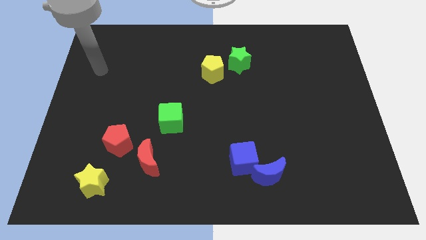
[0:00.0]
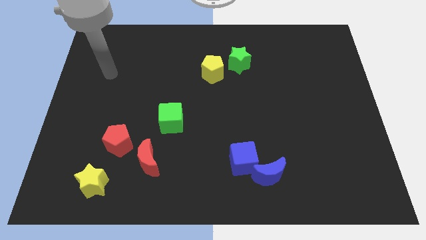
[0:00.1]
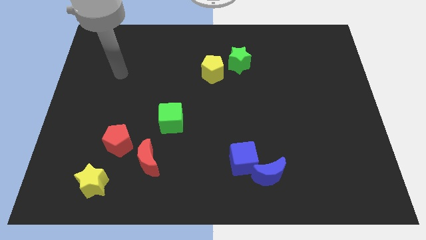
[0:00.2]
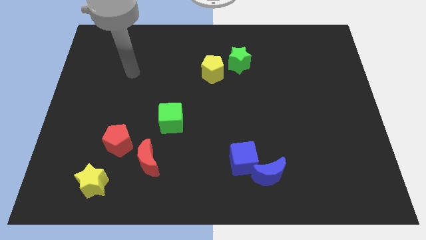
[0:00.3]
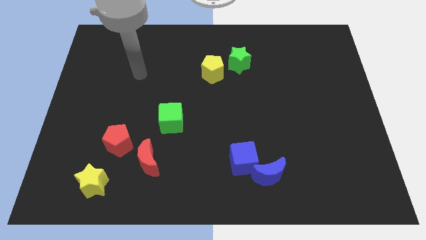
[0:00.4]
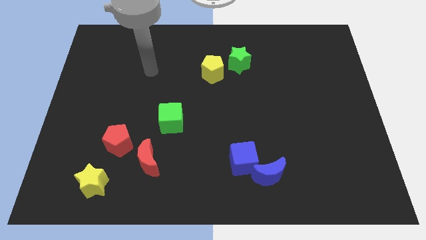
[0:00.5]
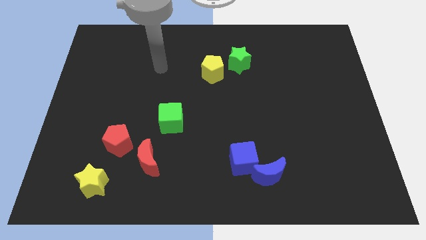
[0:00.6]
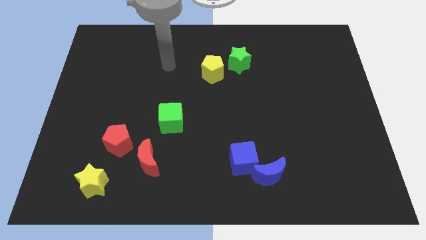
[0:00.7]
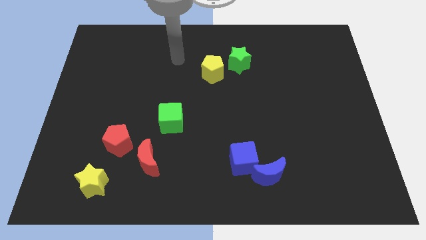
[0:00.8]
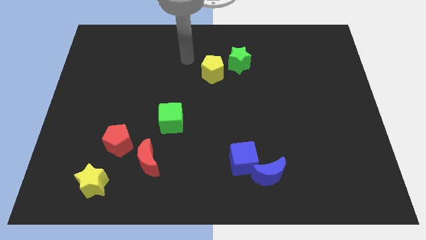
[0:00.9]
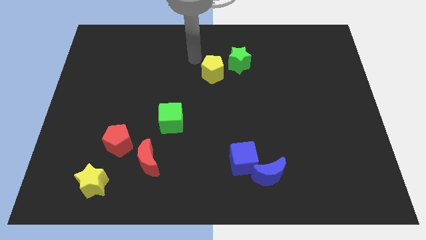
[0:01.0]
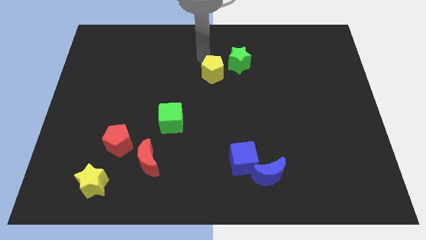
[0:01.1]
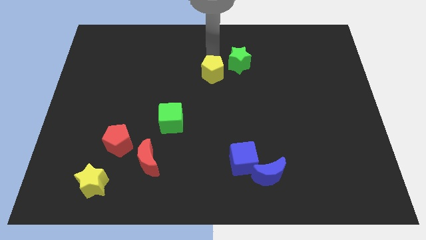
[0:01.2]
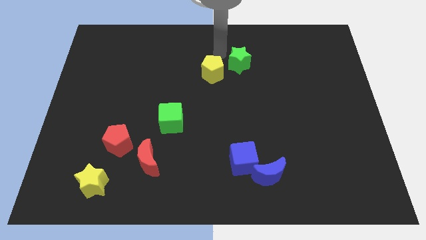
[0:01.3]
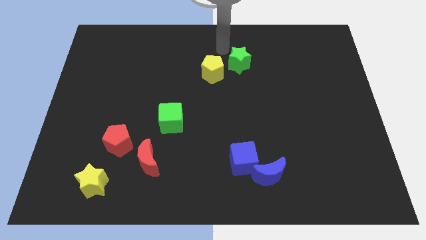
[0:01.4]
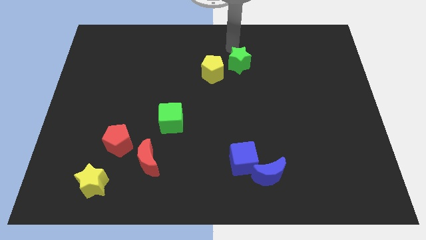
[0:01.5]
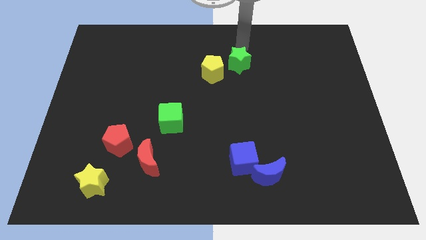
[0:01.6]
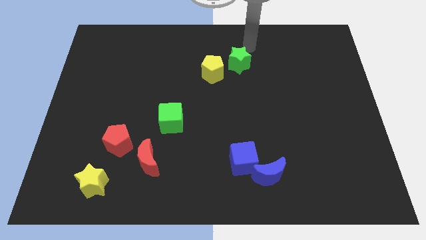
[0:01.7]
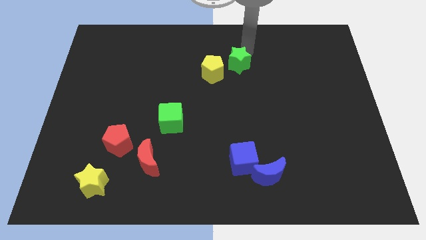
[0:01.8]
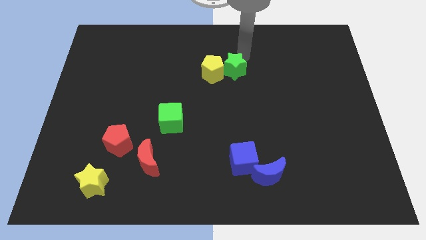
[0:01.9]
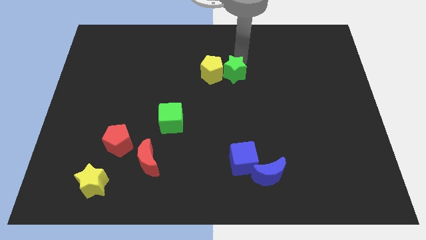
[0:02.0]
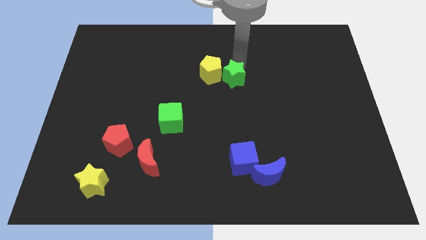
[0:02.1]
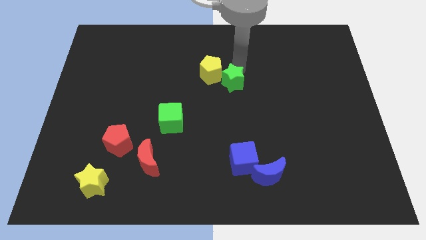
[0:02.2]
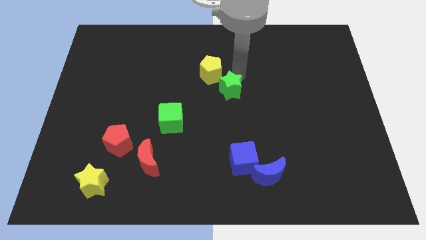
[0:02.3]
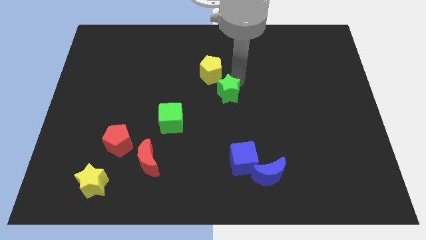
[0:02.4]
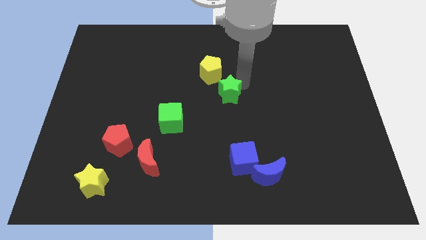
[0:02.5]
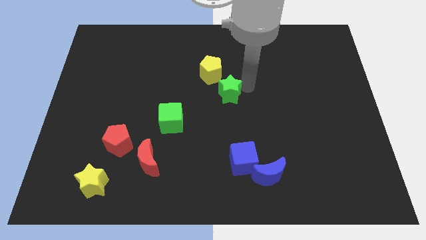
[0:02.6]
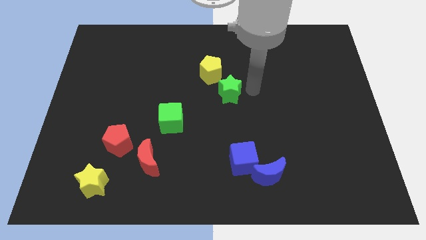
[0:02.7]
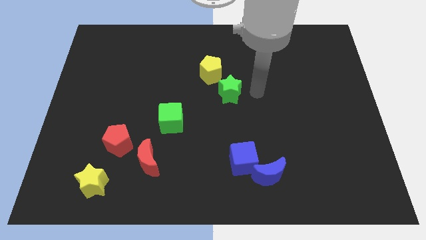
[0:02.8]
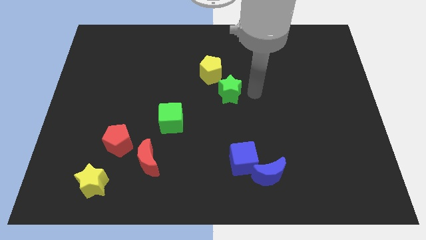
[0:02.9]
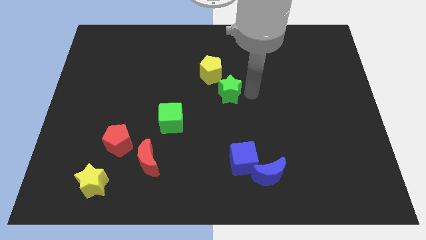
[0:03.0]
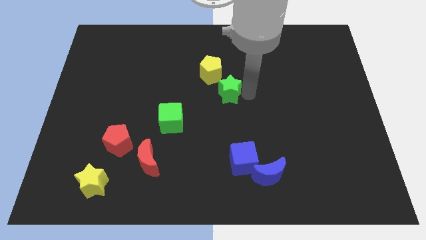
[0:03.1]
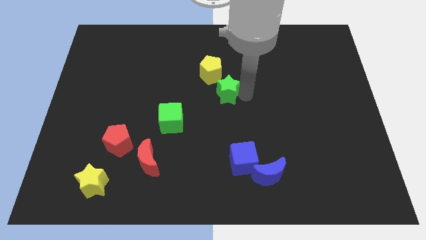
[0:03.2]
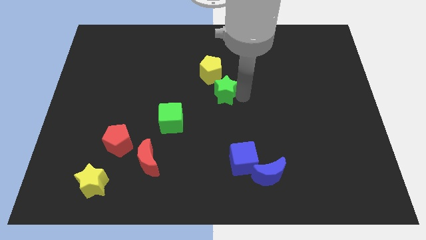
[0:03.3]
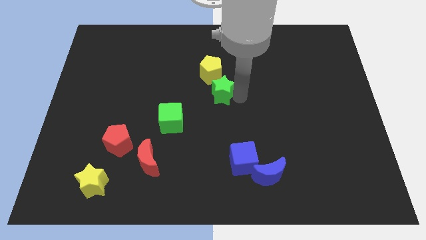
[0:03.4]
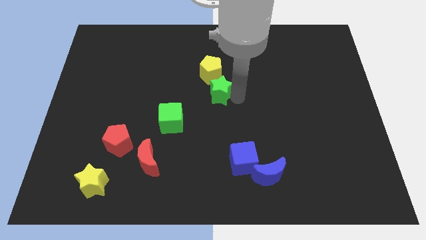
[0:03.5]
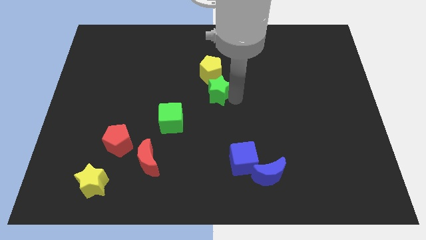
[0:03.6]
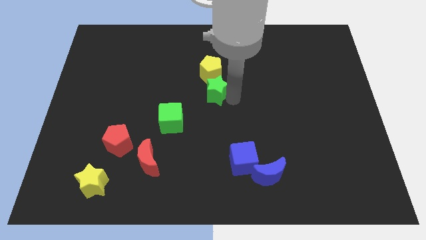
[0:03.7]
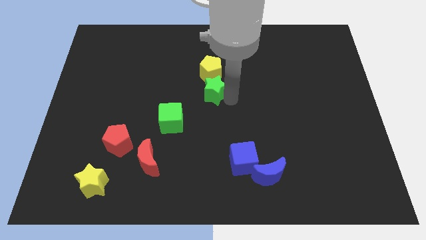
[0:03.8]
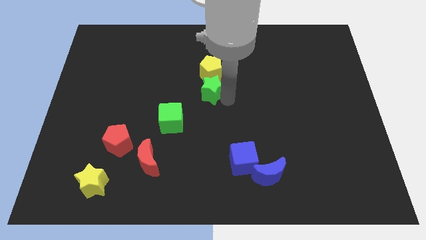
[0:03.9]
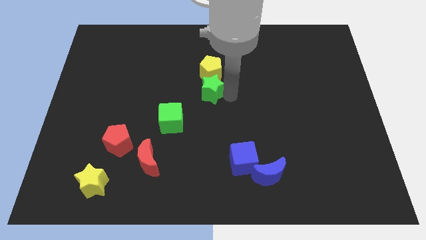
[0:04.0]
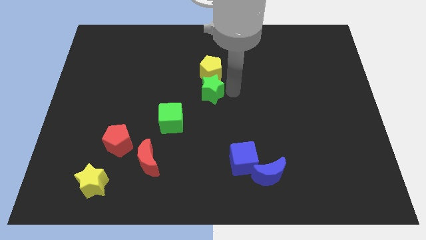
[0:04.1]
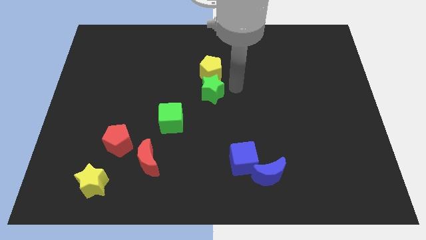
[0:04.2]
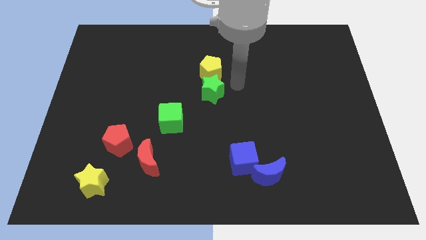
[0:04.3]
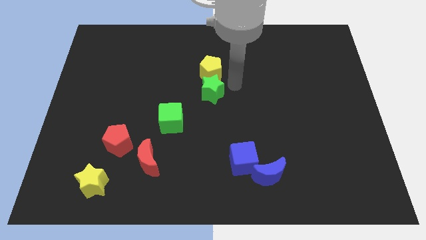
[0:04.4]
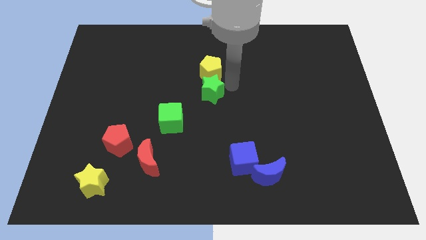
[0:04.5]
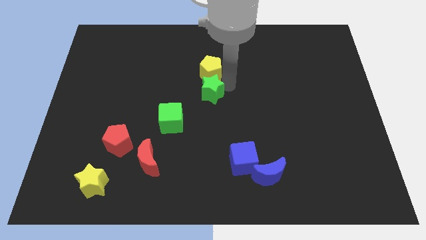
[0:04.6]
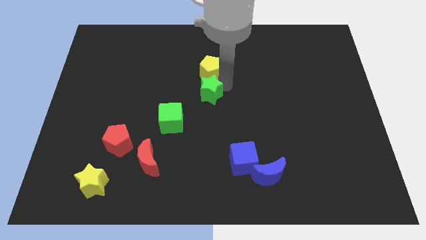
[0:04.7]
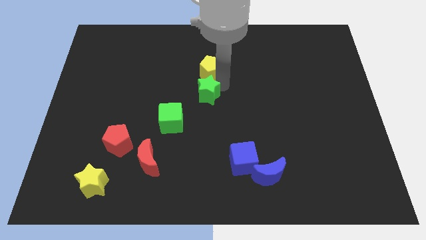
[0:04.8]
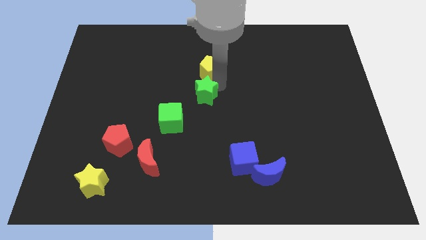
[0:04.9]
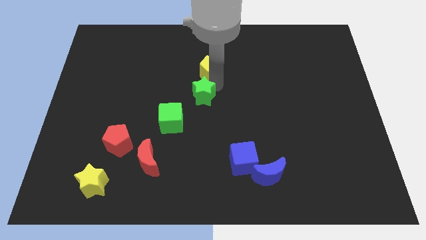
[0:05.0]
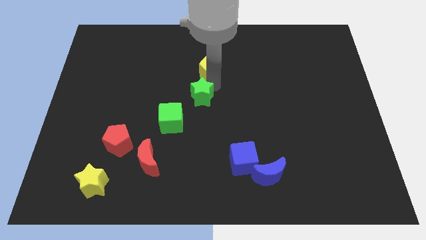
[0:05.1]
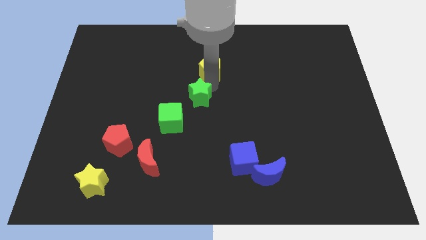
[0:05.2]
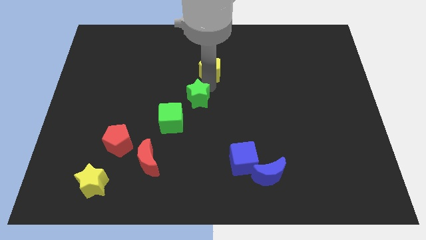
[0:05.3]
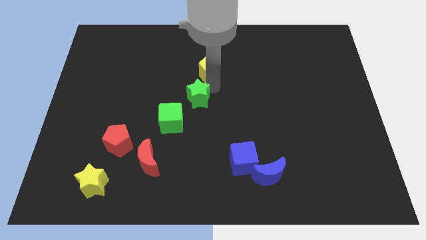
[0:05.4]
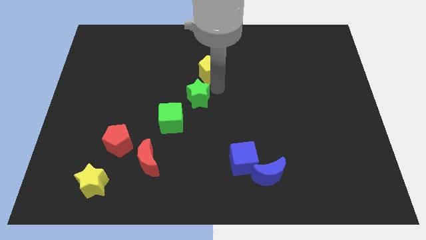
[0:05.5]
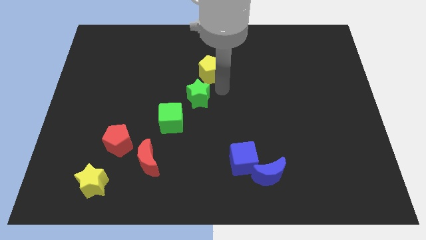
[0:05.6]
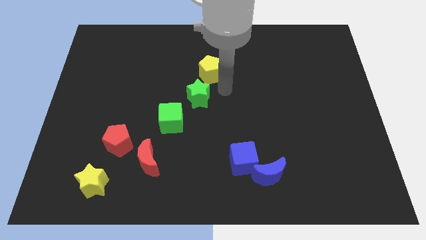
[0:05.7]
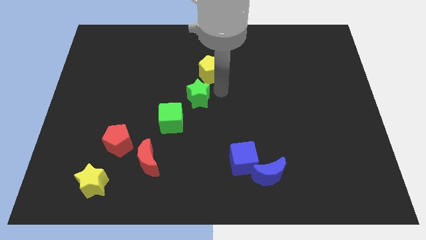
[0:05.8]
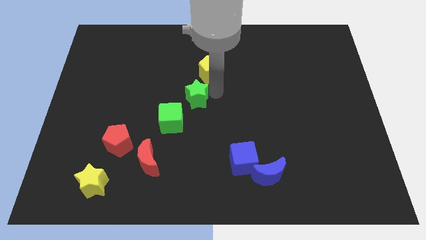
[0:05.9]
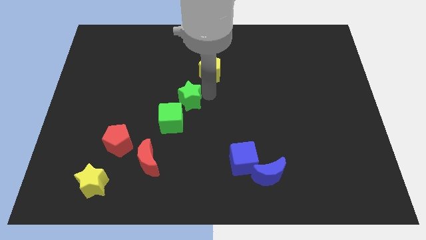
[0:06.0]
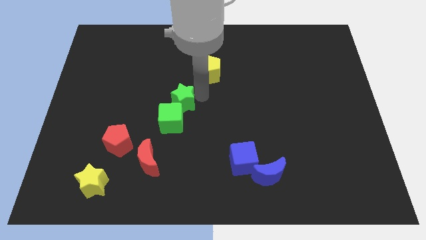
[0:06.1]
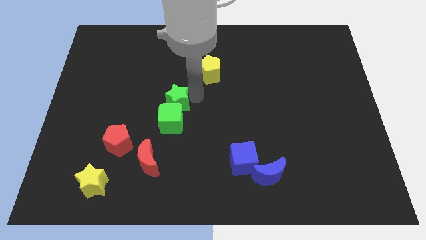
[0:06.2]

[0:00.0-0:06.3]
slide the green star down and then left

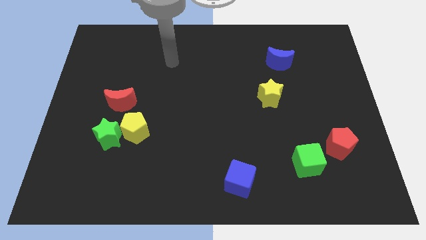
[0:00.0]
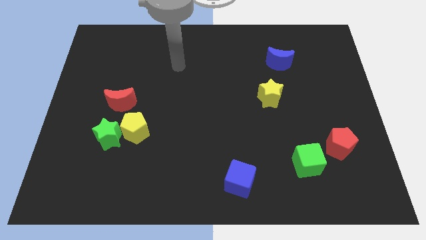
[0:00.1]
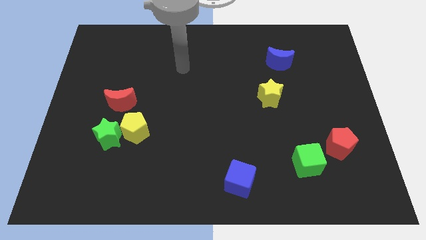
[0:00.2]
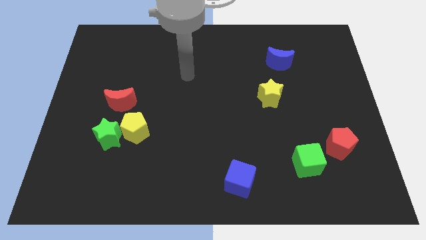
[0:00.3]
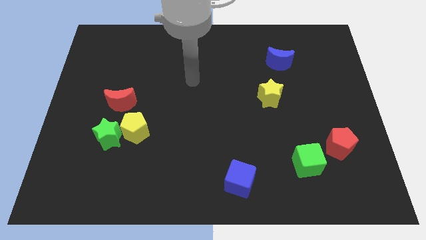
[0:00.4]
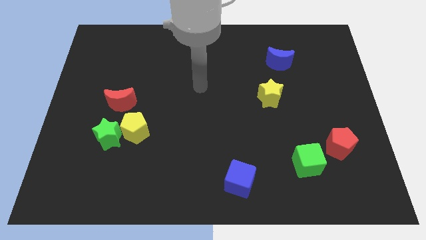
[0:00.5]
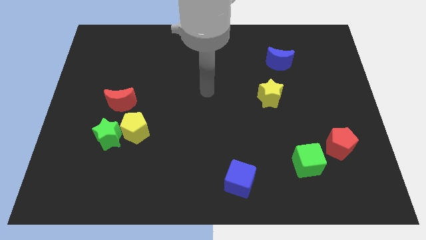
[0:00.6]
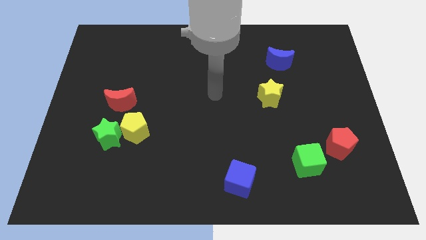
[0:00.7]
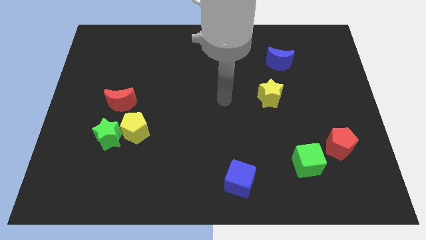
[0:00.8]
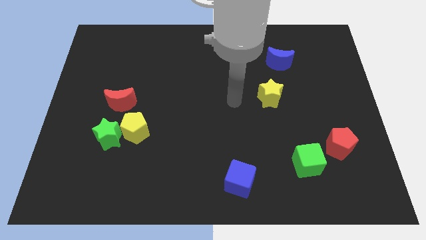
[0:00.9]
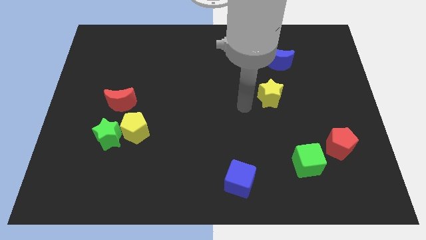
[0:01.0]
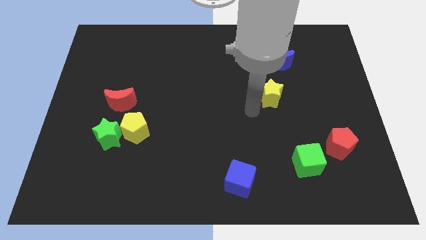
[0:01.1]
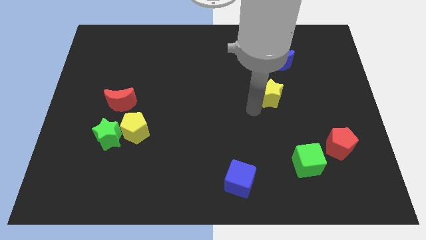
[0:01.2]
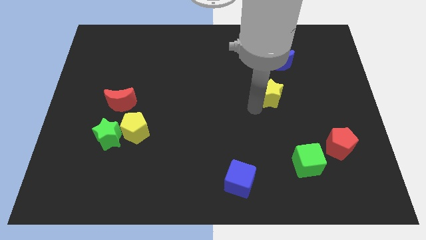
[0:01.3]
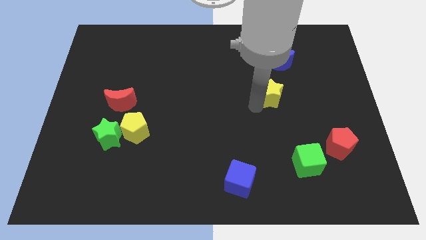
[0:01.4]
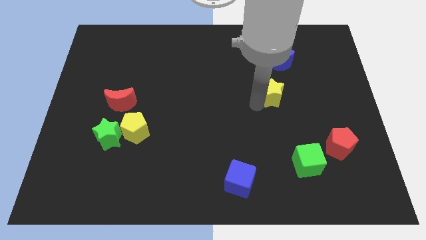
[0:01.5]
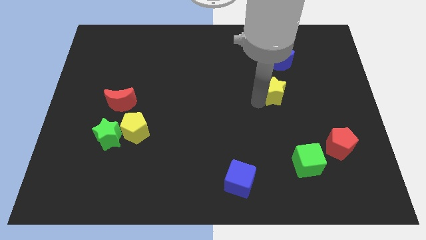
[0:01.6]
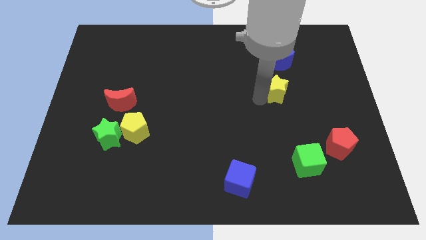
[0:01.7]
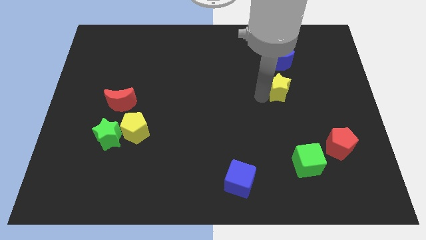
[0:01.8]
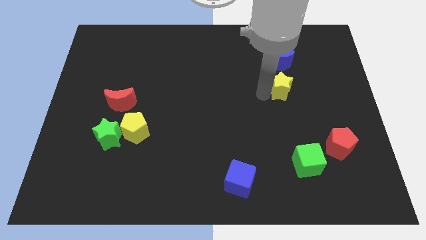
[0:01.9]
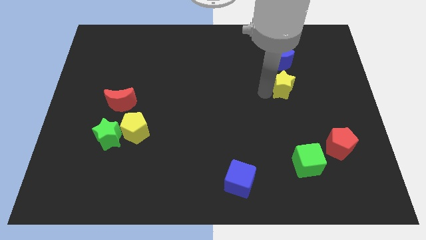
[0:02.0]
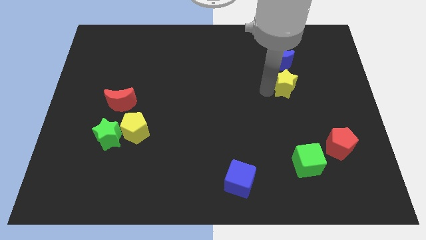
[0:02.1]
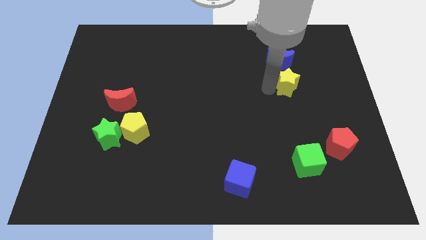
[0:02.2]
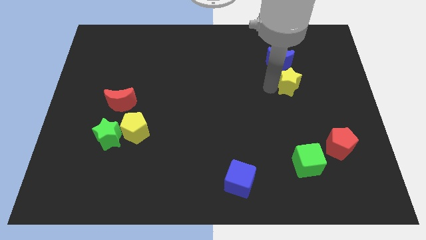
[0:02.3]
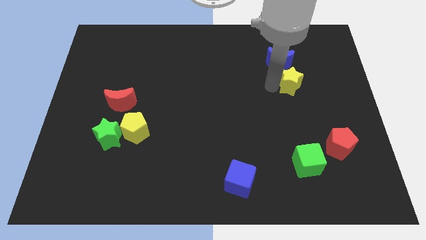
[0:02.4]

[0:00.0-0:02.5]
slide the yellow star upwards and to the right a bit
